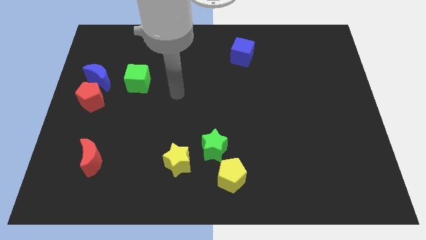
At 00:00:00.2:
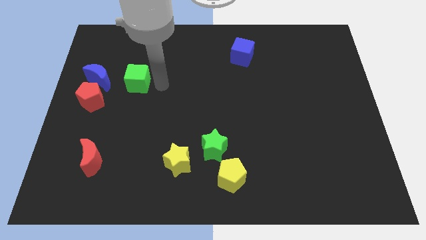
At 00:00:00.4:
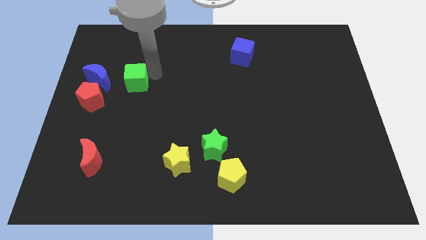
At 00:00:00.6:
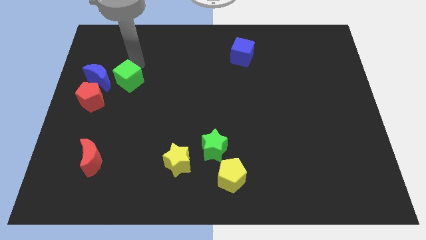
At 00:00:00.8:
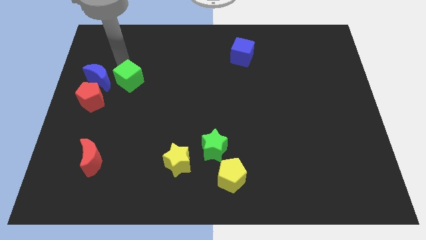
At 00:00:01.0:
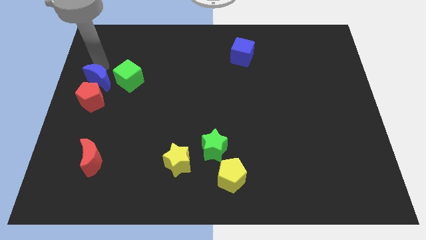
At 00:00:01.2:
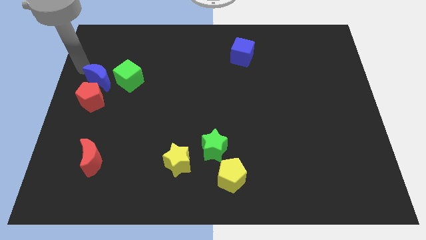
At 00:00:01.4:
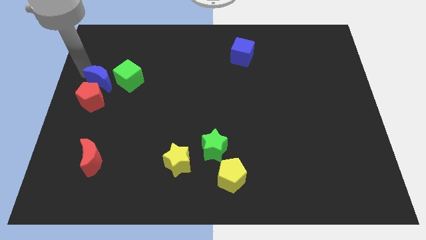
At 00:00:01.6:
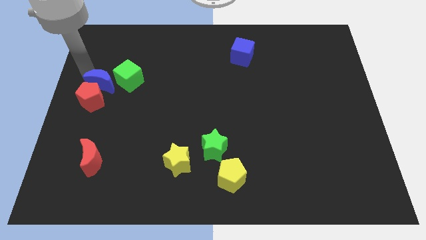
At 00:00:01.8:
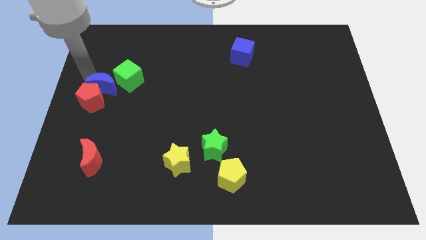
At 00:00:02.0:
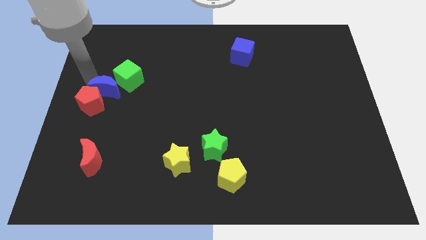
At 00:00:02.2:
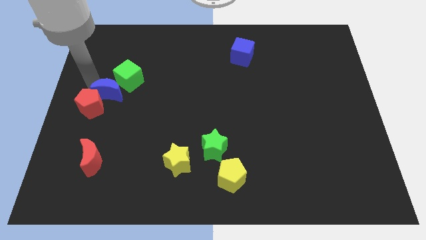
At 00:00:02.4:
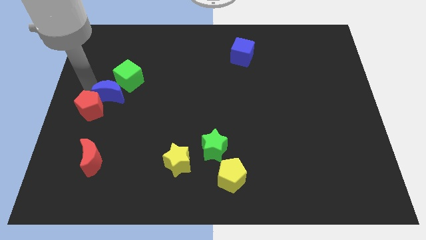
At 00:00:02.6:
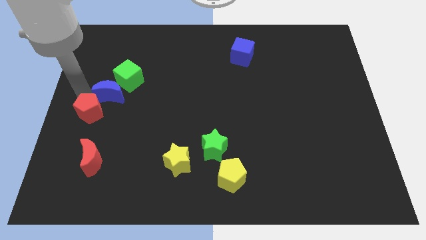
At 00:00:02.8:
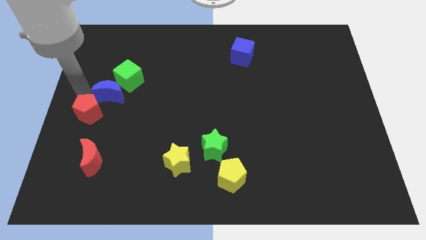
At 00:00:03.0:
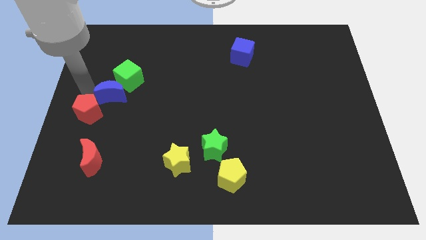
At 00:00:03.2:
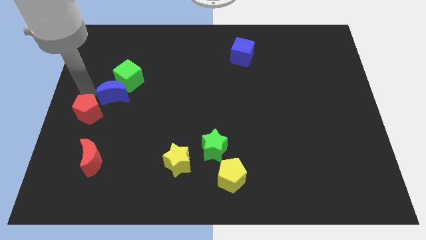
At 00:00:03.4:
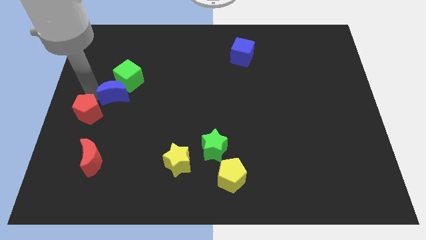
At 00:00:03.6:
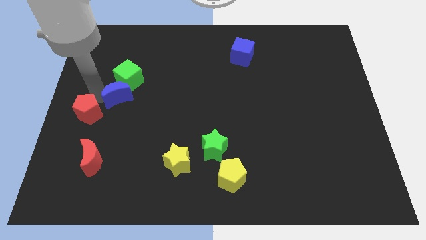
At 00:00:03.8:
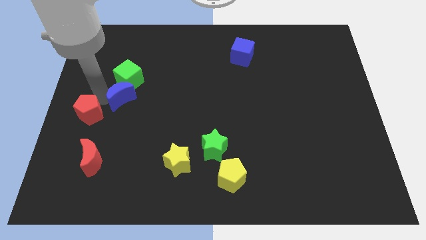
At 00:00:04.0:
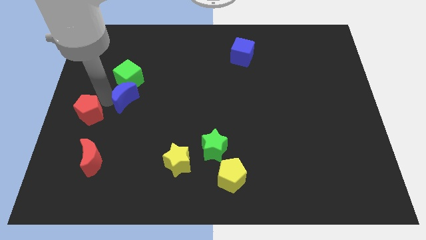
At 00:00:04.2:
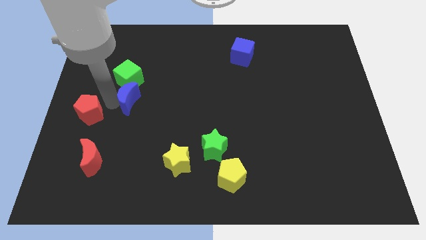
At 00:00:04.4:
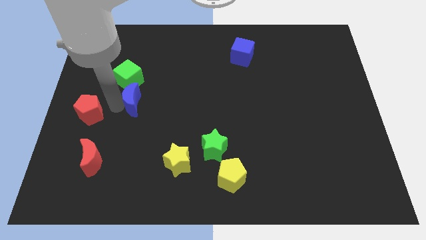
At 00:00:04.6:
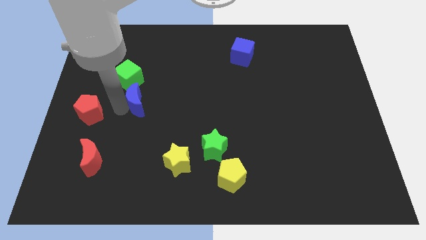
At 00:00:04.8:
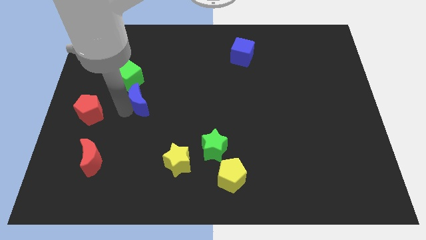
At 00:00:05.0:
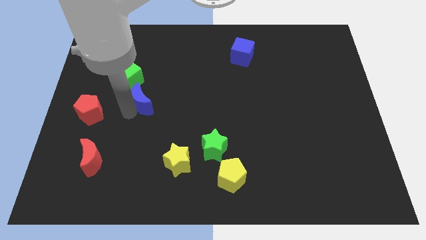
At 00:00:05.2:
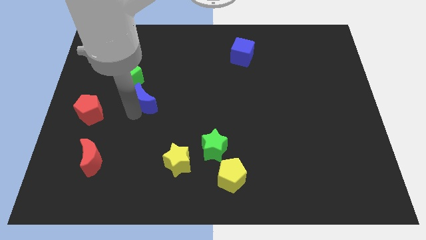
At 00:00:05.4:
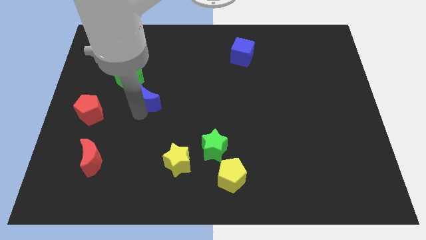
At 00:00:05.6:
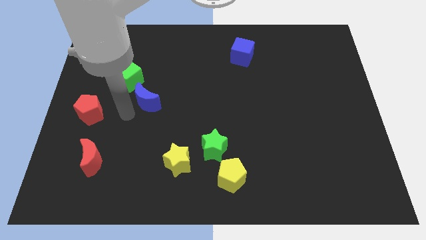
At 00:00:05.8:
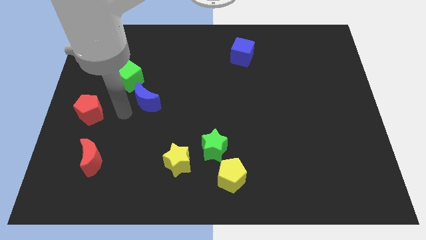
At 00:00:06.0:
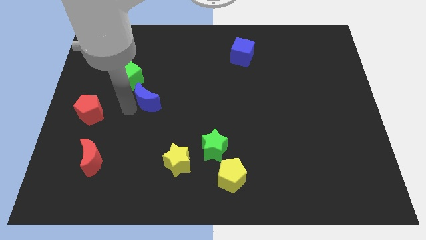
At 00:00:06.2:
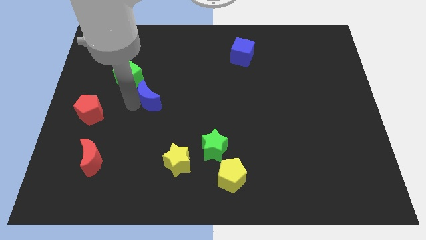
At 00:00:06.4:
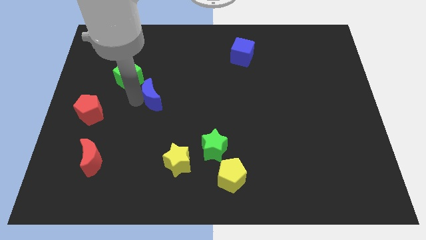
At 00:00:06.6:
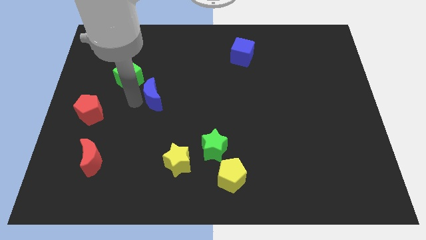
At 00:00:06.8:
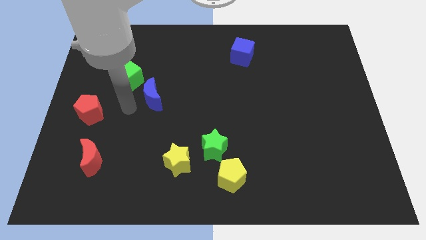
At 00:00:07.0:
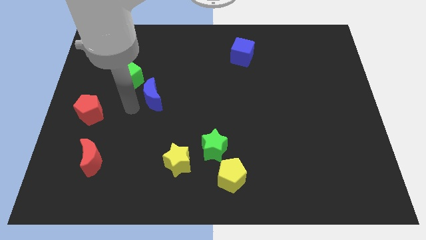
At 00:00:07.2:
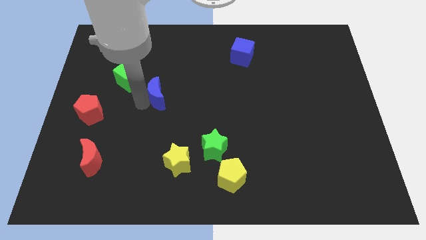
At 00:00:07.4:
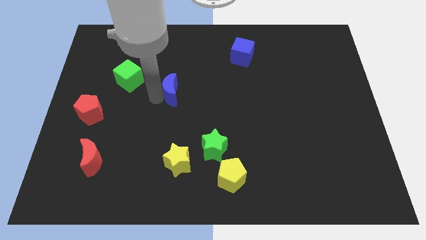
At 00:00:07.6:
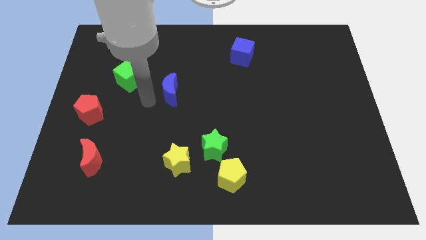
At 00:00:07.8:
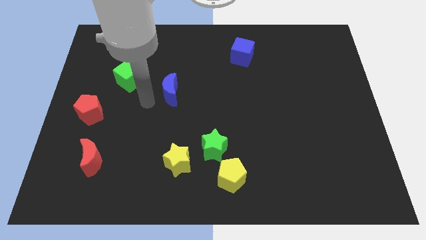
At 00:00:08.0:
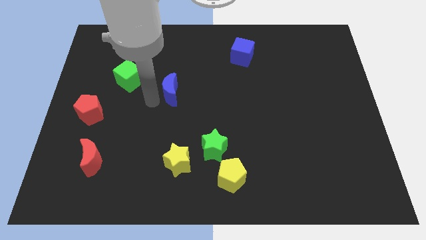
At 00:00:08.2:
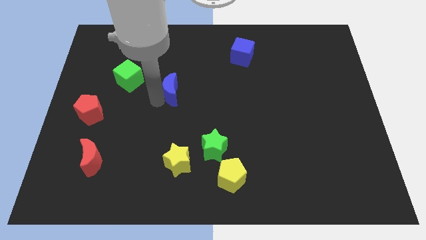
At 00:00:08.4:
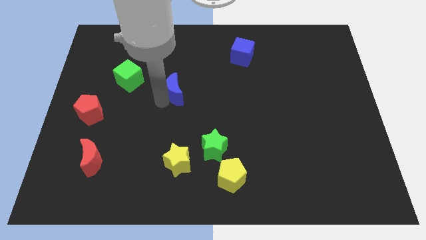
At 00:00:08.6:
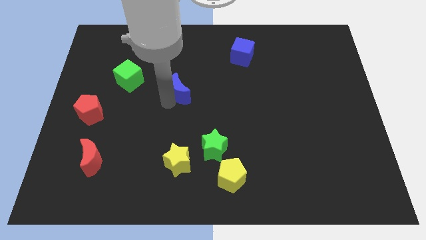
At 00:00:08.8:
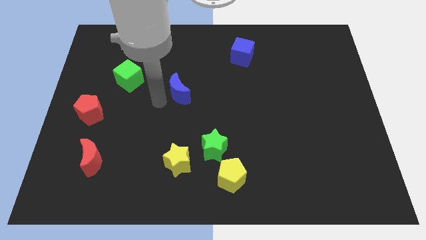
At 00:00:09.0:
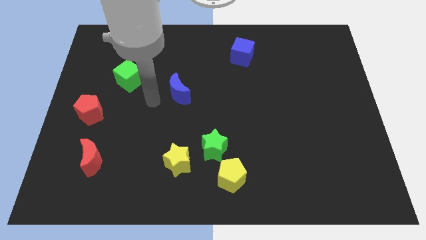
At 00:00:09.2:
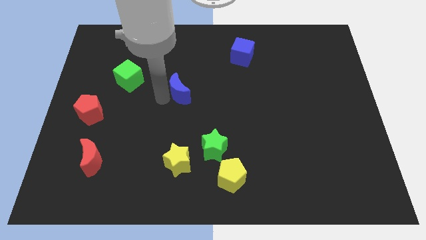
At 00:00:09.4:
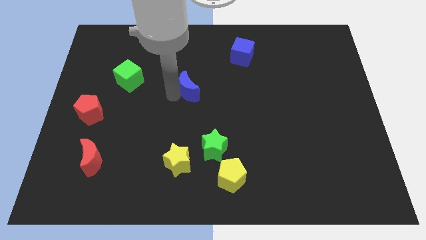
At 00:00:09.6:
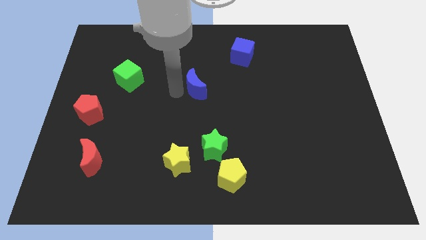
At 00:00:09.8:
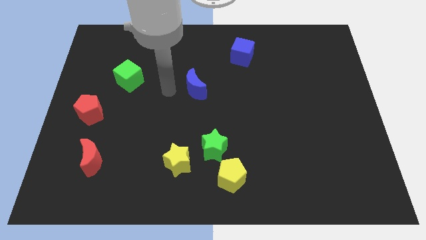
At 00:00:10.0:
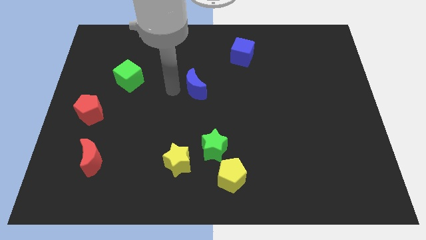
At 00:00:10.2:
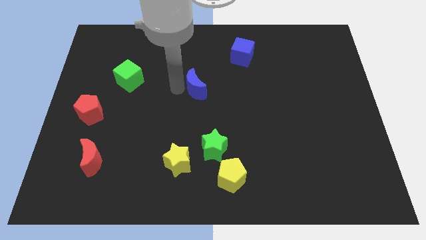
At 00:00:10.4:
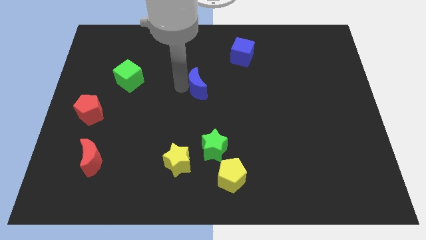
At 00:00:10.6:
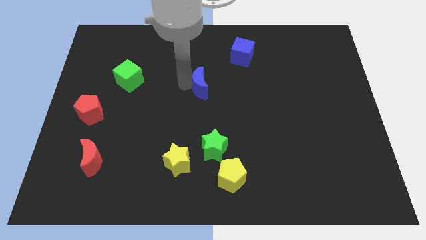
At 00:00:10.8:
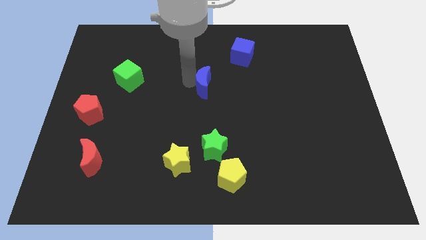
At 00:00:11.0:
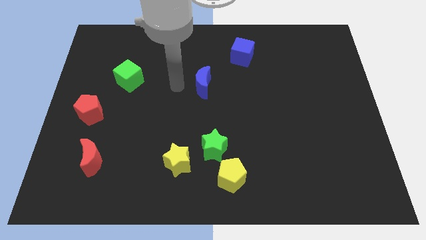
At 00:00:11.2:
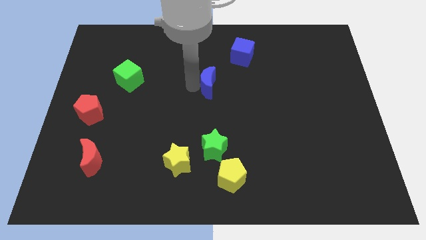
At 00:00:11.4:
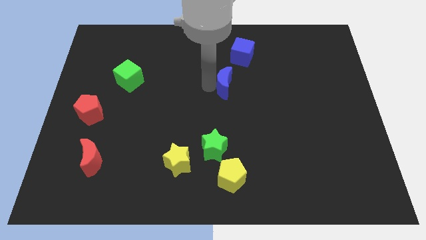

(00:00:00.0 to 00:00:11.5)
slide the blue moon below the blue cube

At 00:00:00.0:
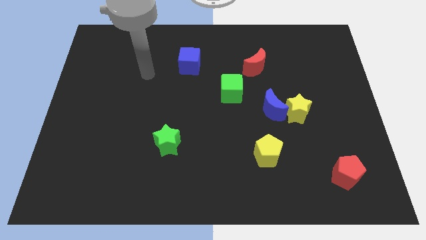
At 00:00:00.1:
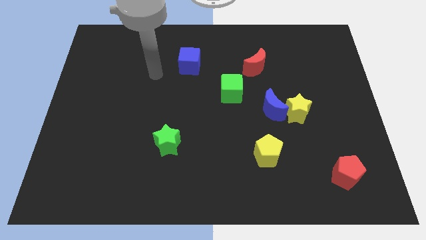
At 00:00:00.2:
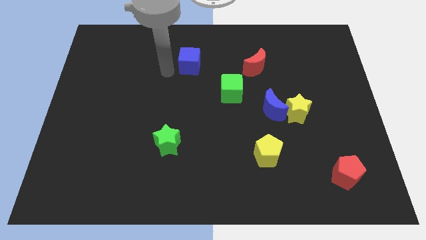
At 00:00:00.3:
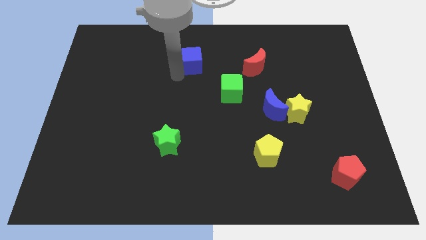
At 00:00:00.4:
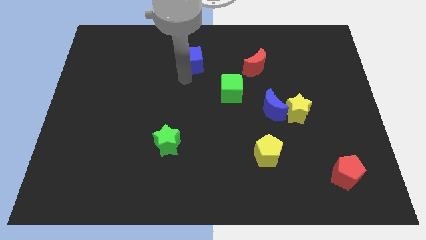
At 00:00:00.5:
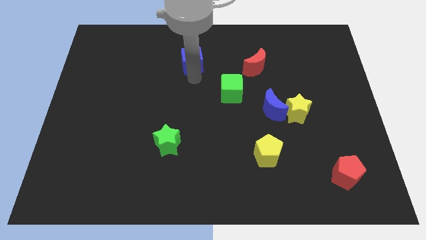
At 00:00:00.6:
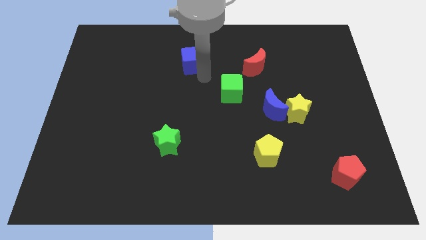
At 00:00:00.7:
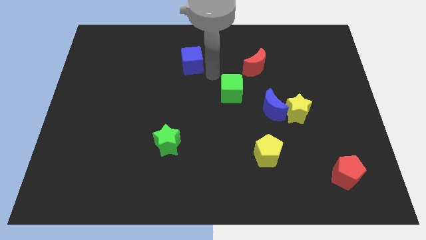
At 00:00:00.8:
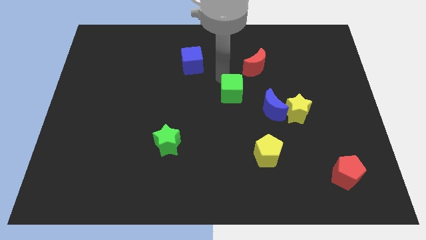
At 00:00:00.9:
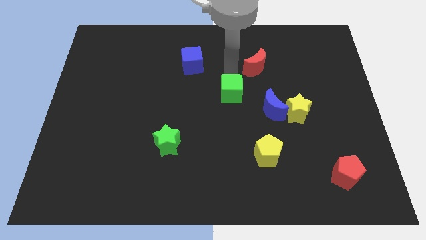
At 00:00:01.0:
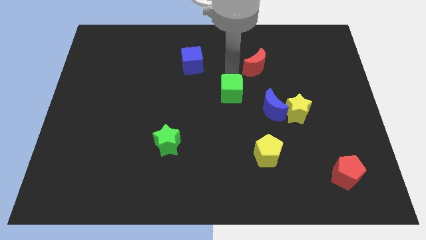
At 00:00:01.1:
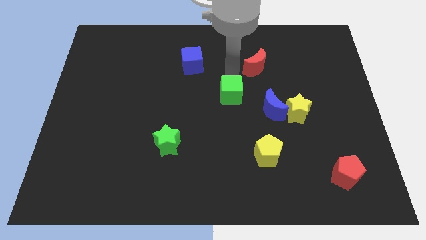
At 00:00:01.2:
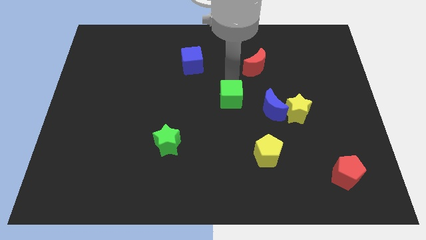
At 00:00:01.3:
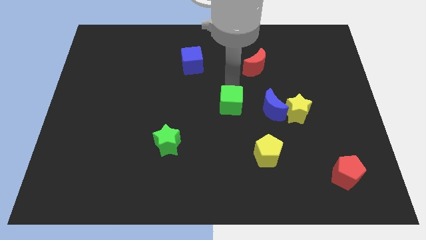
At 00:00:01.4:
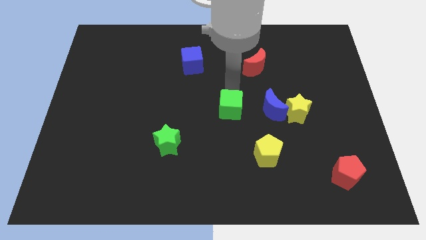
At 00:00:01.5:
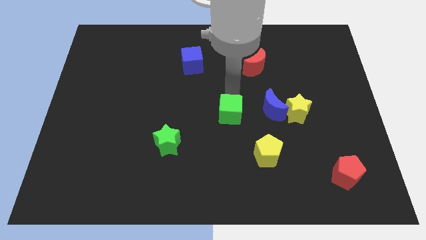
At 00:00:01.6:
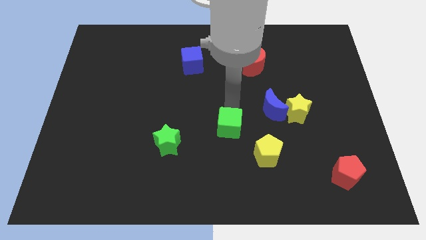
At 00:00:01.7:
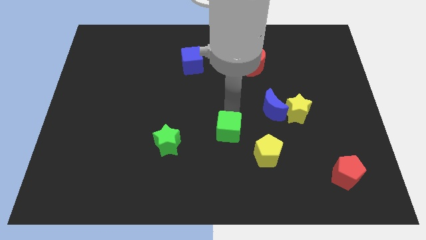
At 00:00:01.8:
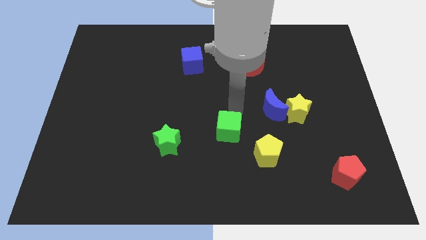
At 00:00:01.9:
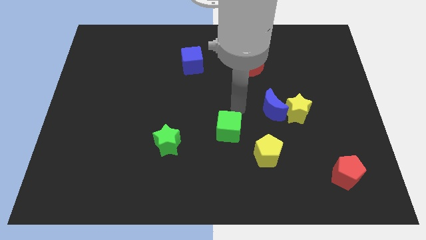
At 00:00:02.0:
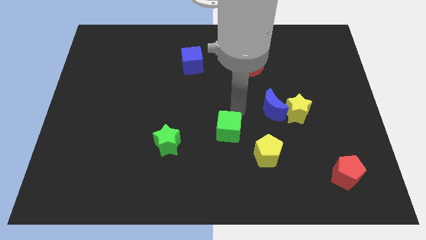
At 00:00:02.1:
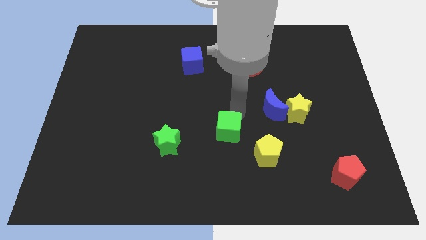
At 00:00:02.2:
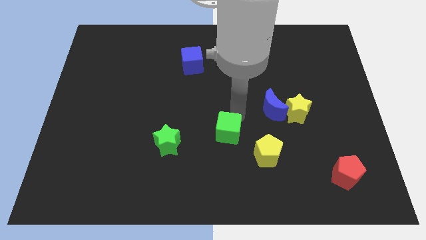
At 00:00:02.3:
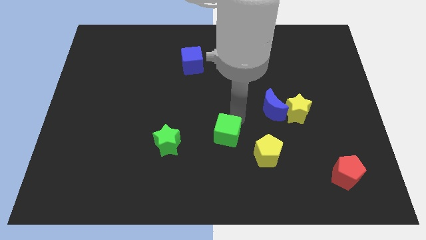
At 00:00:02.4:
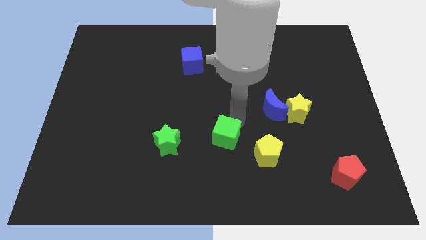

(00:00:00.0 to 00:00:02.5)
push the green cube to the left side of the yellow pentagon
